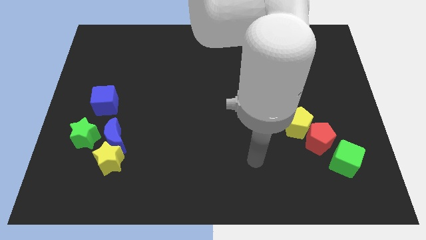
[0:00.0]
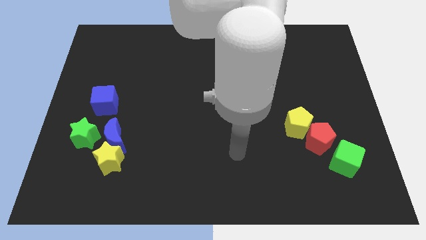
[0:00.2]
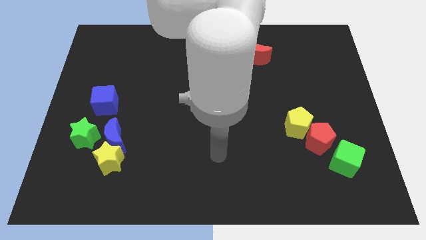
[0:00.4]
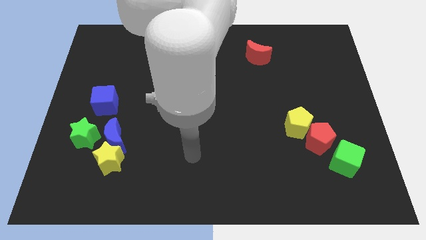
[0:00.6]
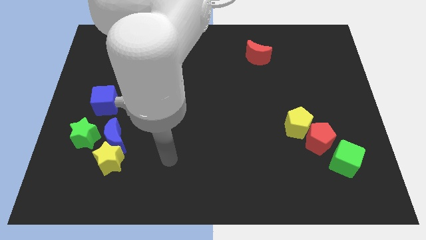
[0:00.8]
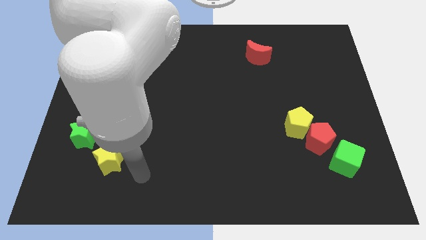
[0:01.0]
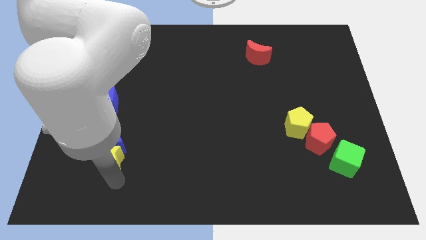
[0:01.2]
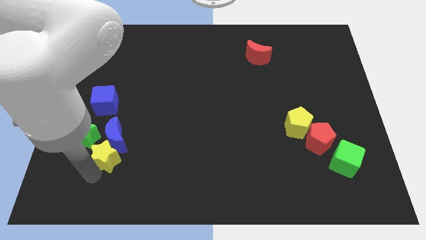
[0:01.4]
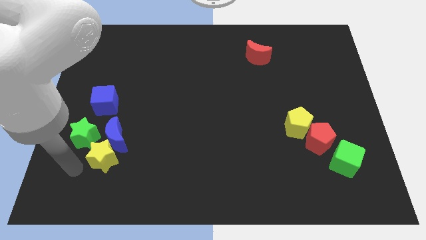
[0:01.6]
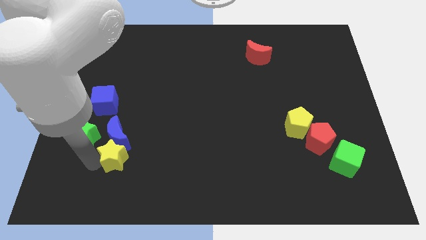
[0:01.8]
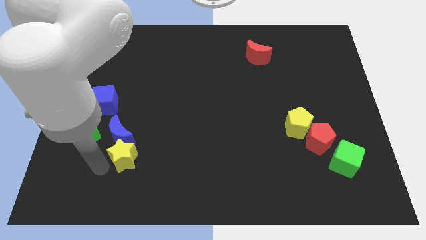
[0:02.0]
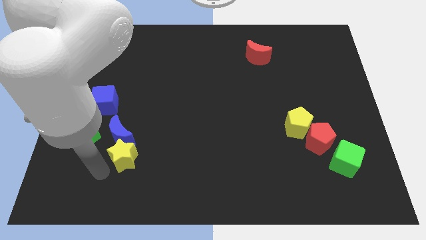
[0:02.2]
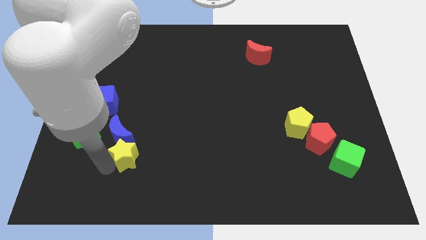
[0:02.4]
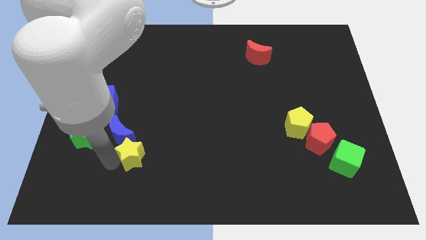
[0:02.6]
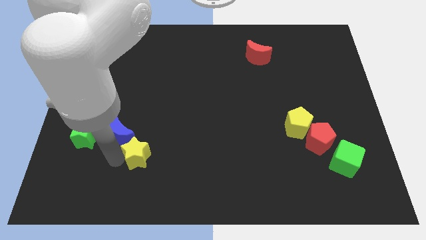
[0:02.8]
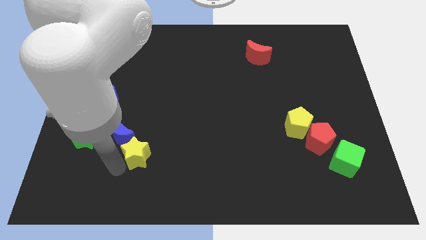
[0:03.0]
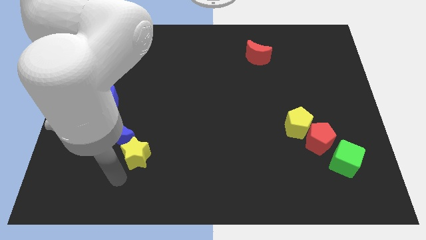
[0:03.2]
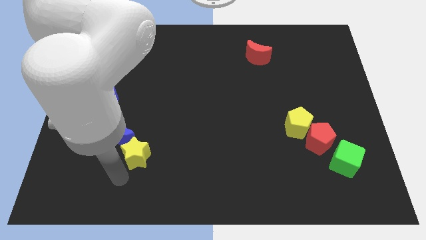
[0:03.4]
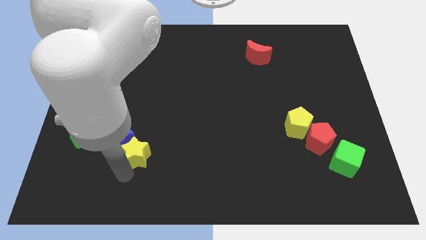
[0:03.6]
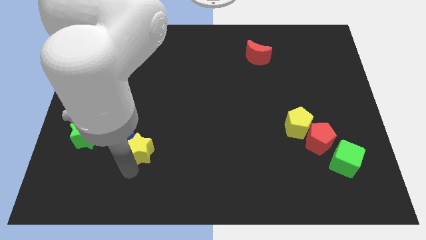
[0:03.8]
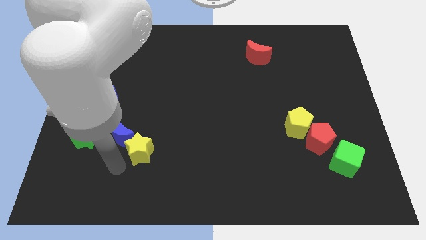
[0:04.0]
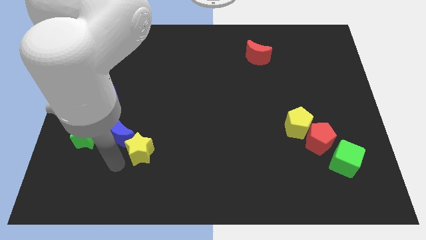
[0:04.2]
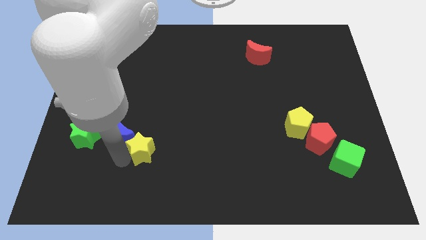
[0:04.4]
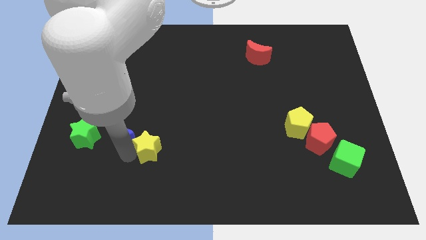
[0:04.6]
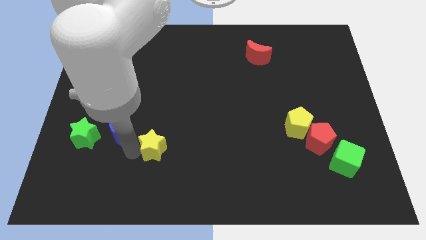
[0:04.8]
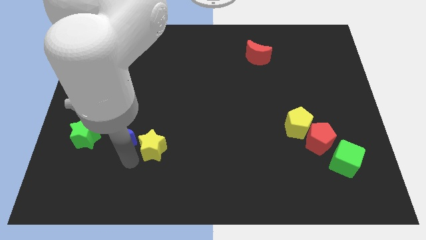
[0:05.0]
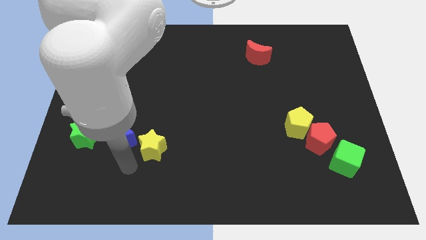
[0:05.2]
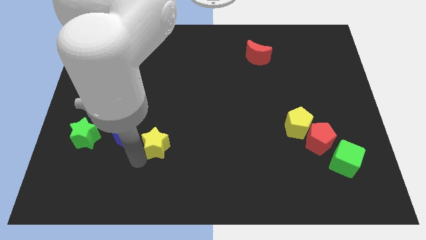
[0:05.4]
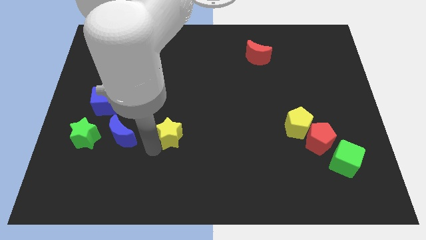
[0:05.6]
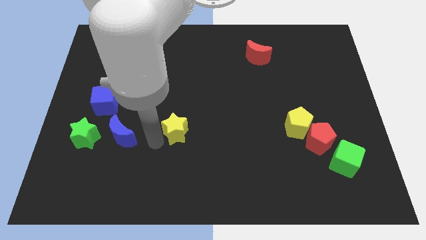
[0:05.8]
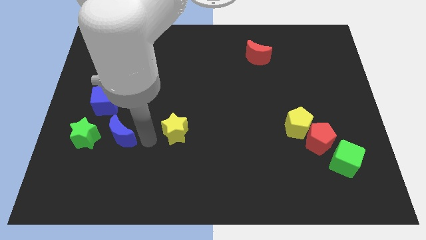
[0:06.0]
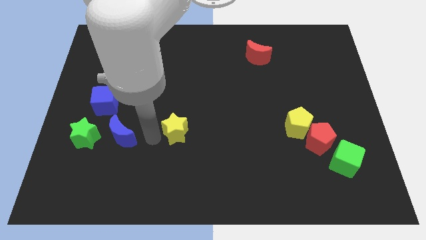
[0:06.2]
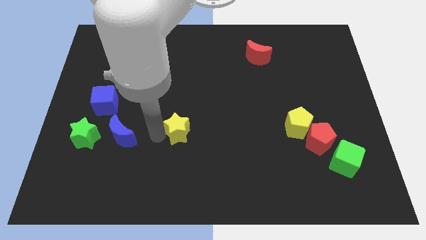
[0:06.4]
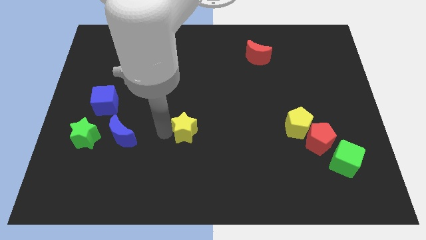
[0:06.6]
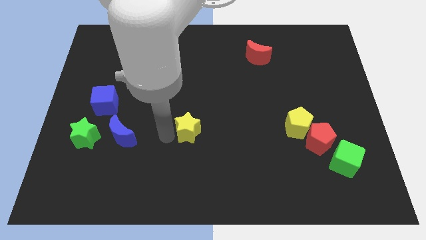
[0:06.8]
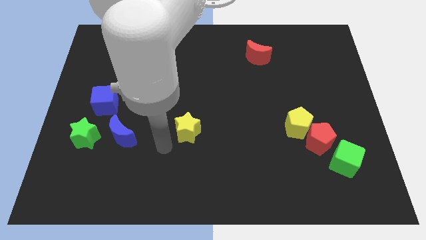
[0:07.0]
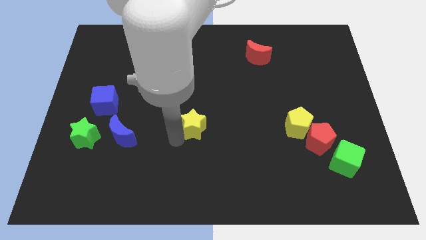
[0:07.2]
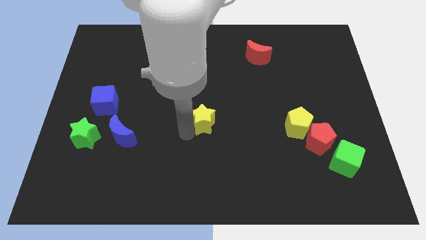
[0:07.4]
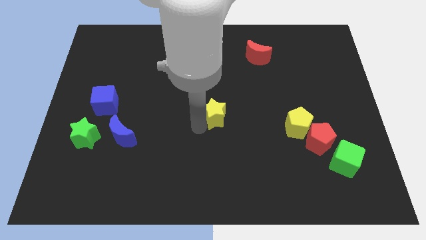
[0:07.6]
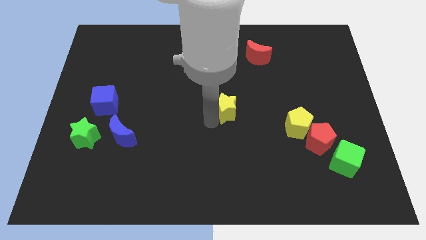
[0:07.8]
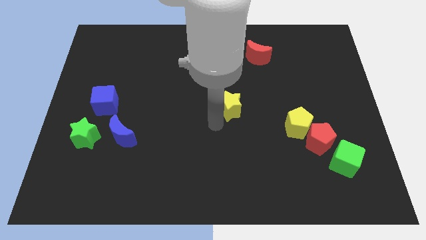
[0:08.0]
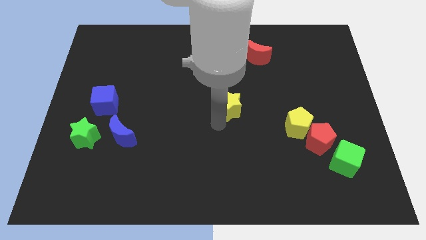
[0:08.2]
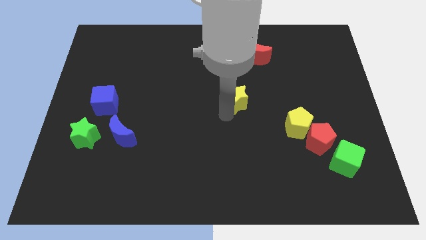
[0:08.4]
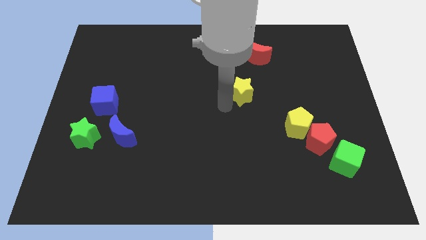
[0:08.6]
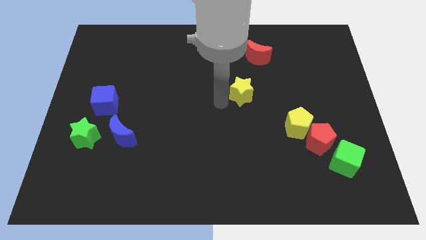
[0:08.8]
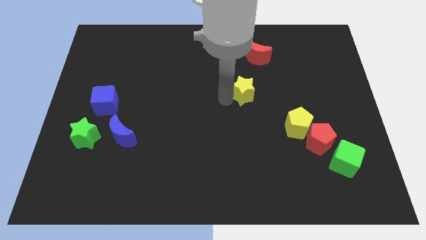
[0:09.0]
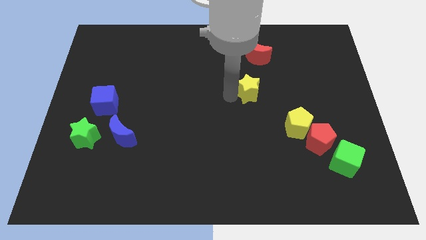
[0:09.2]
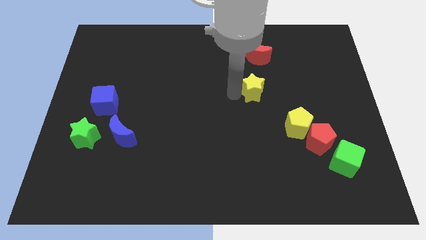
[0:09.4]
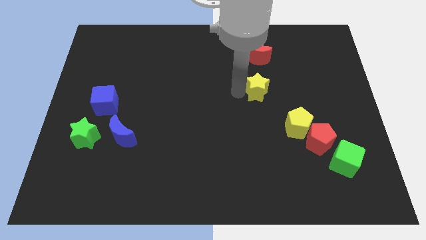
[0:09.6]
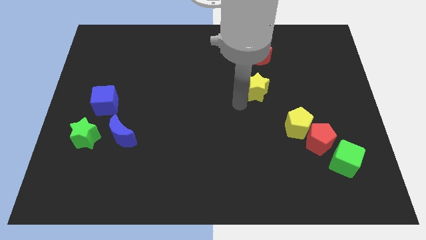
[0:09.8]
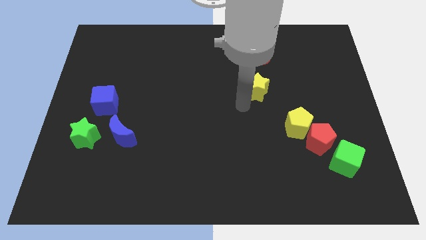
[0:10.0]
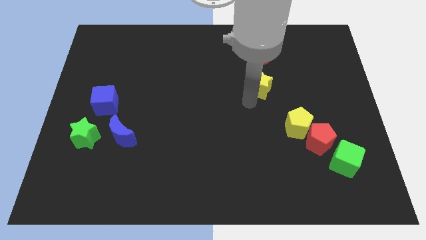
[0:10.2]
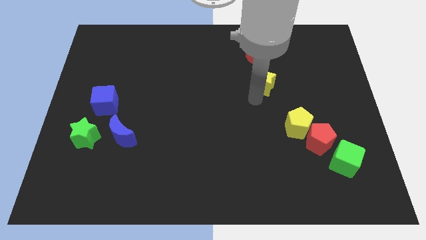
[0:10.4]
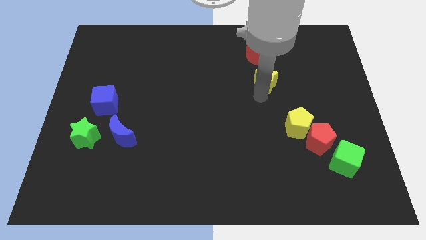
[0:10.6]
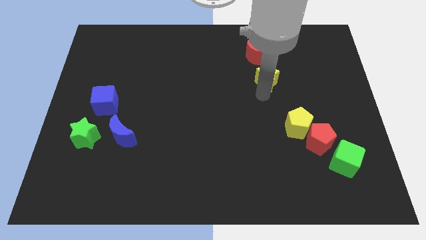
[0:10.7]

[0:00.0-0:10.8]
slide the yellow star to the bottom right of the red moon

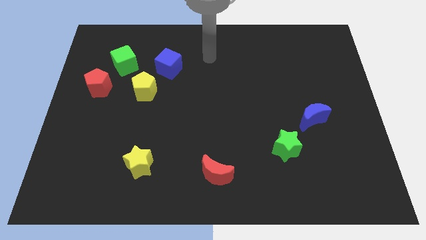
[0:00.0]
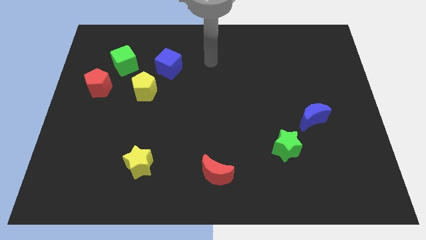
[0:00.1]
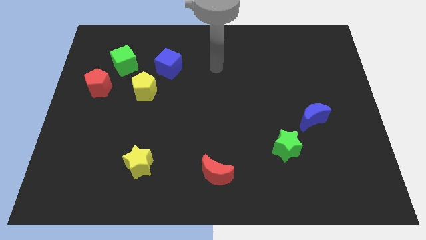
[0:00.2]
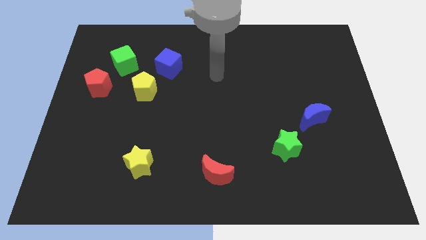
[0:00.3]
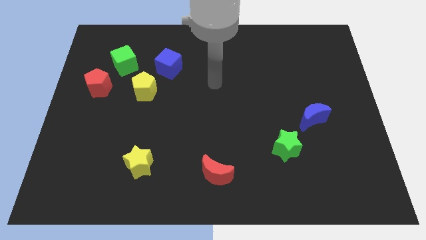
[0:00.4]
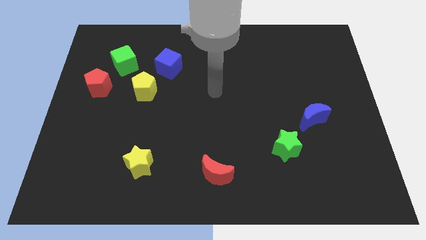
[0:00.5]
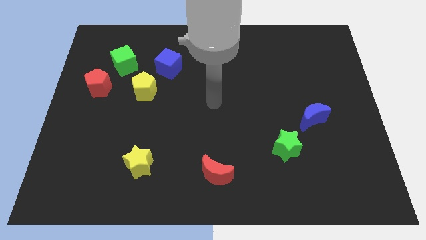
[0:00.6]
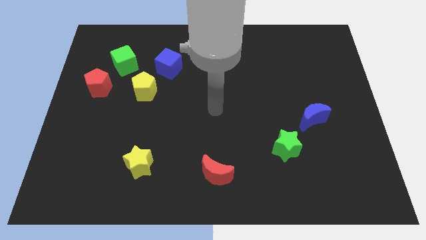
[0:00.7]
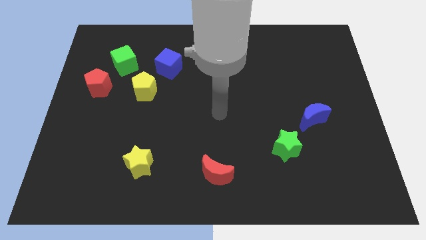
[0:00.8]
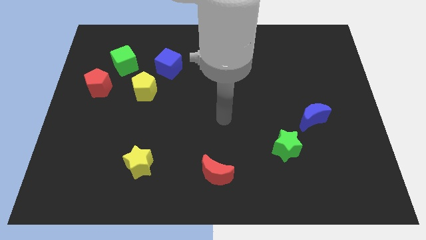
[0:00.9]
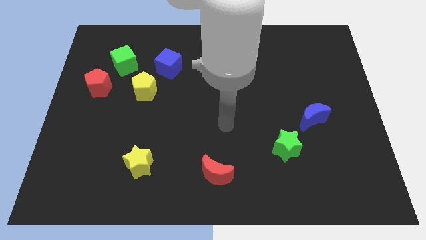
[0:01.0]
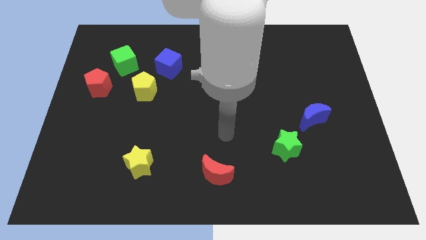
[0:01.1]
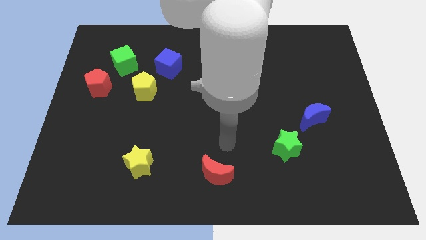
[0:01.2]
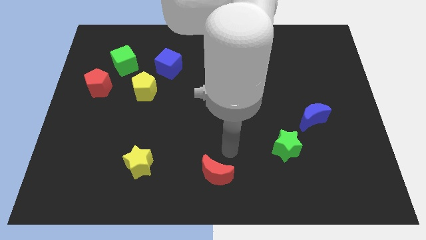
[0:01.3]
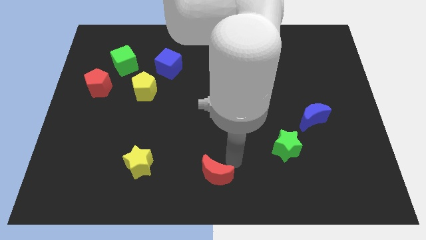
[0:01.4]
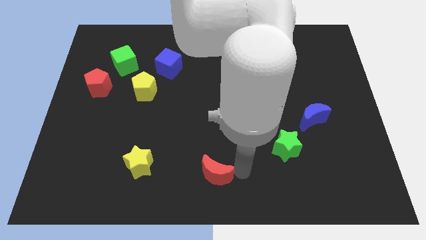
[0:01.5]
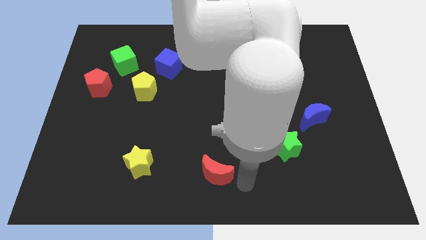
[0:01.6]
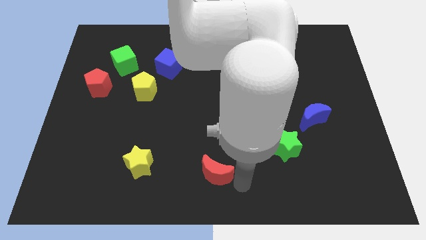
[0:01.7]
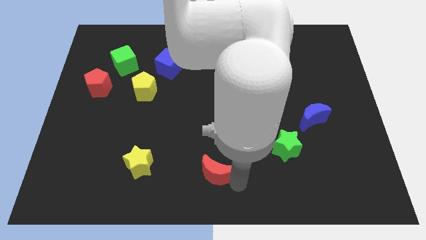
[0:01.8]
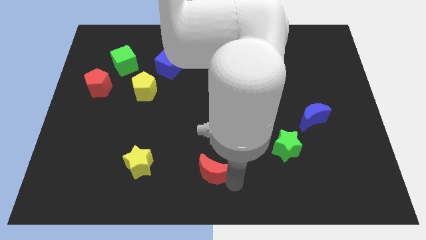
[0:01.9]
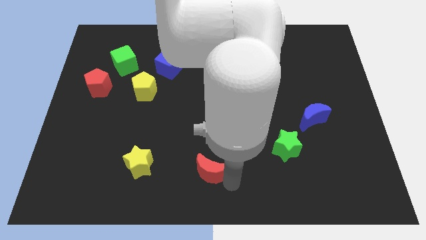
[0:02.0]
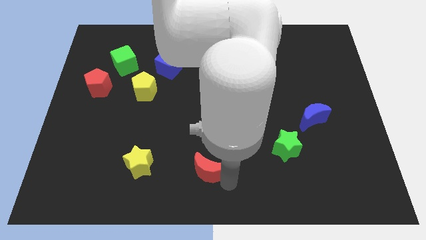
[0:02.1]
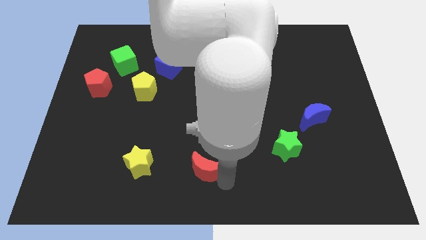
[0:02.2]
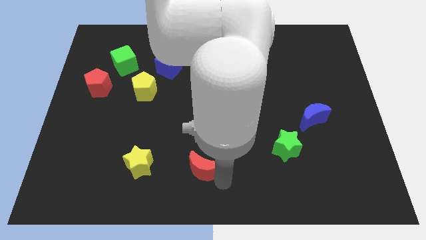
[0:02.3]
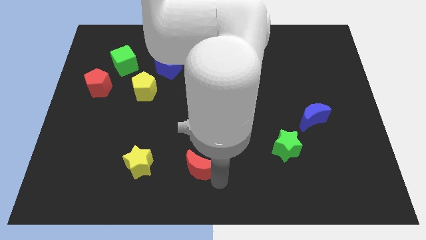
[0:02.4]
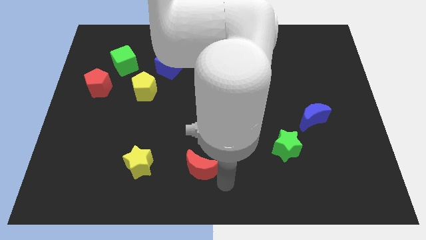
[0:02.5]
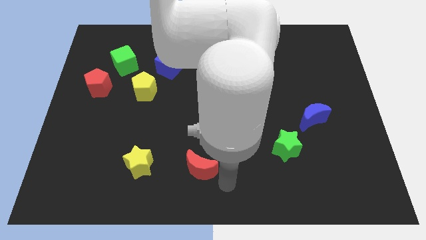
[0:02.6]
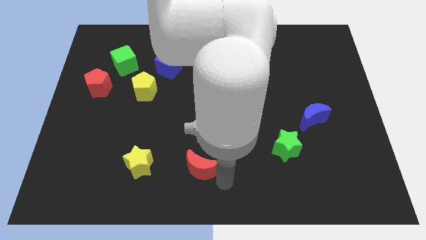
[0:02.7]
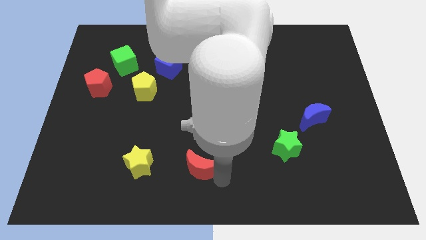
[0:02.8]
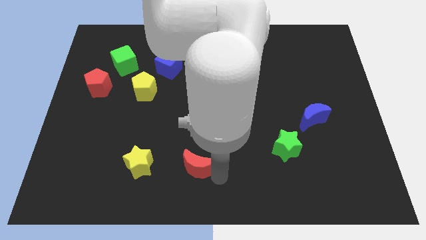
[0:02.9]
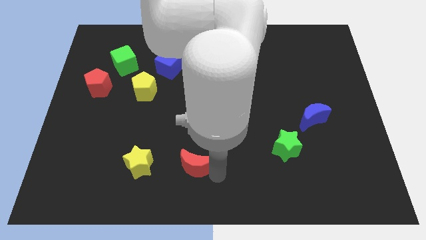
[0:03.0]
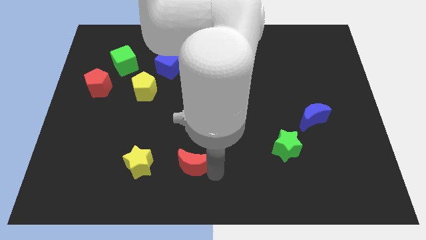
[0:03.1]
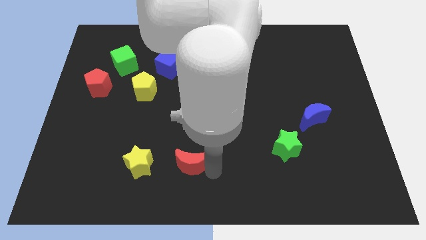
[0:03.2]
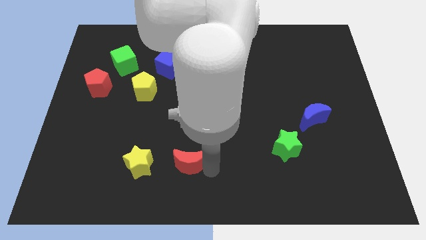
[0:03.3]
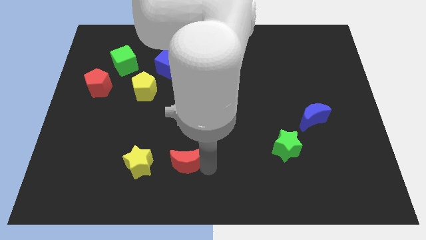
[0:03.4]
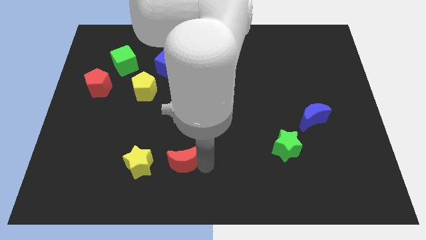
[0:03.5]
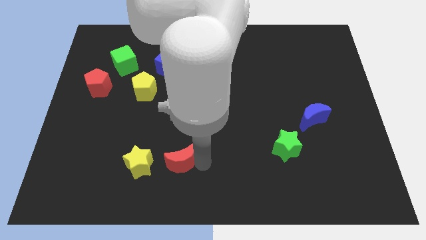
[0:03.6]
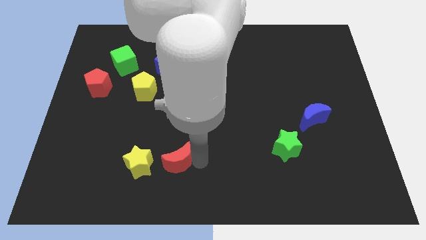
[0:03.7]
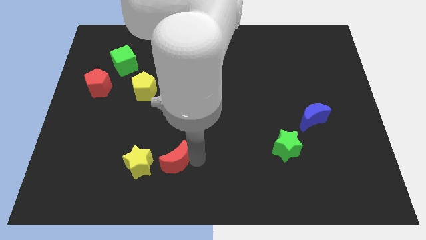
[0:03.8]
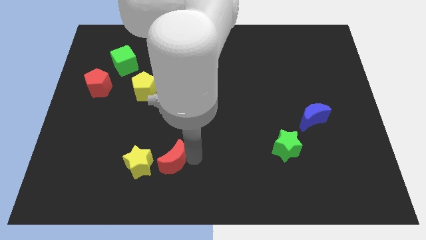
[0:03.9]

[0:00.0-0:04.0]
move the red moon to the top right of the yellow star
